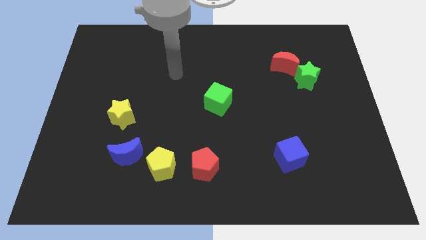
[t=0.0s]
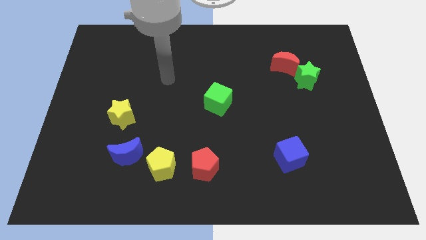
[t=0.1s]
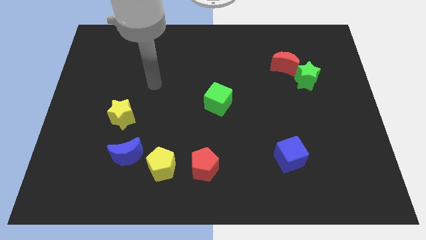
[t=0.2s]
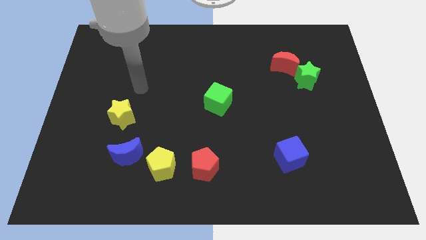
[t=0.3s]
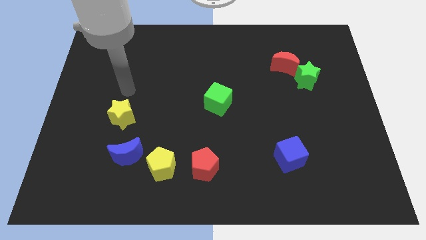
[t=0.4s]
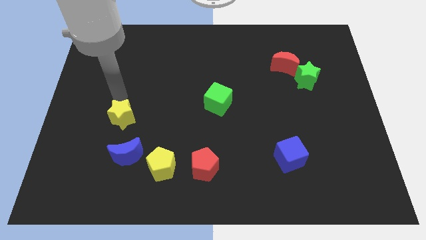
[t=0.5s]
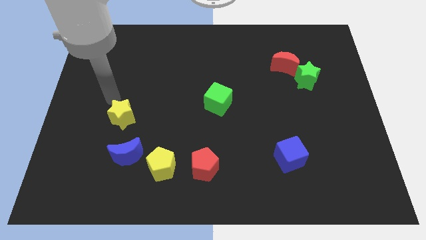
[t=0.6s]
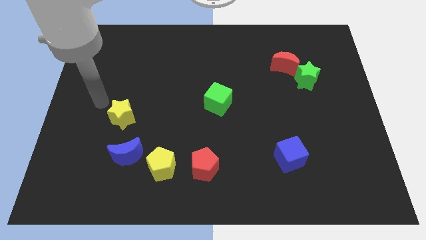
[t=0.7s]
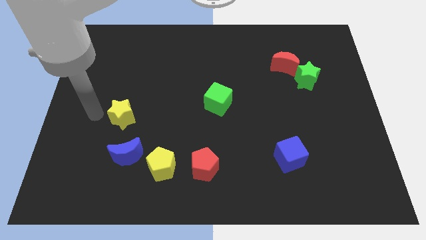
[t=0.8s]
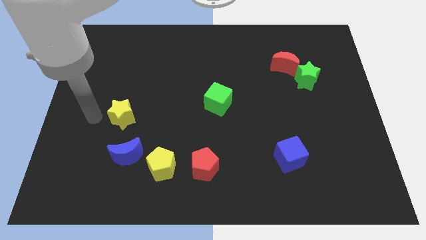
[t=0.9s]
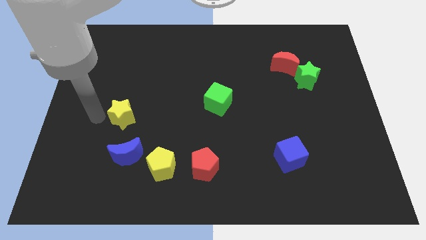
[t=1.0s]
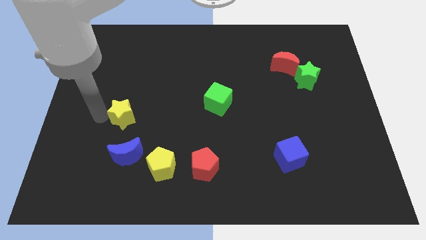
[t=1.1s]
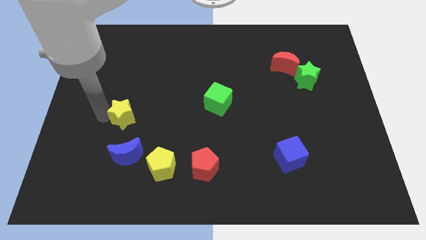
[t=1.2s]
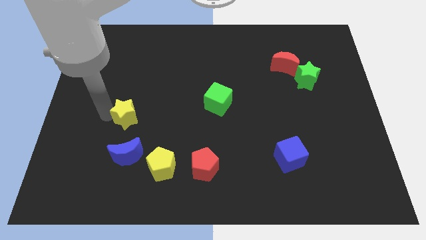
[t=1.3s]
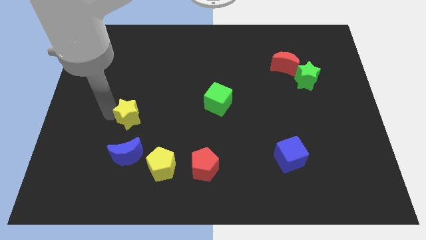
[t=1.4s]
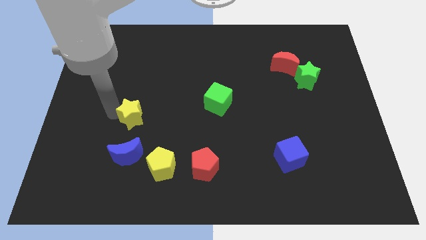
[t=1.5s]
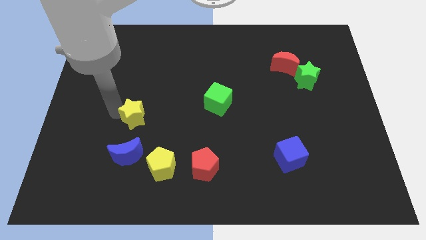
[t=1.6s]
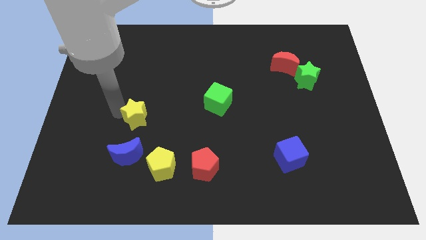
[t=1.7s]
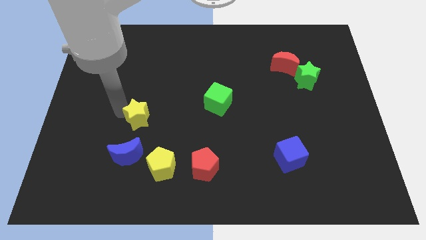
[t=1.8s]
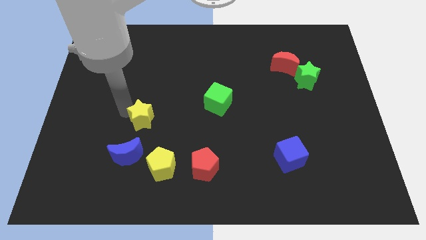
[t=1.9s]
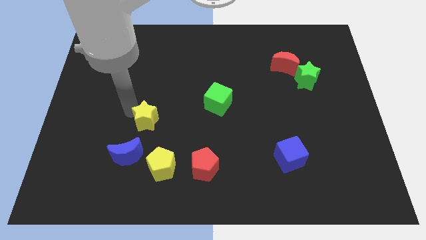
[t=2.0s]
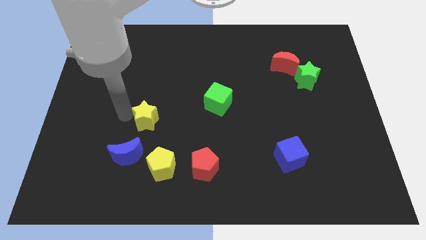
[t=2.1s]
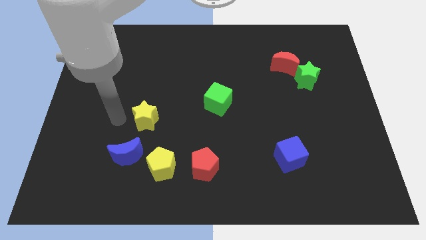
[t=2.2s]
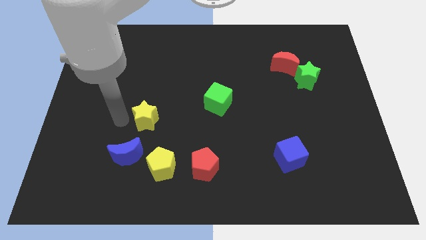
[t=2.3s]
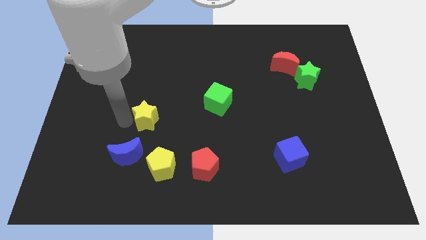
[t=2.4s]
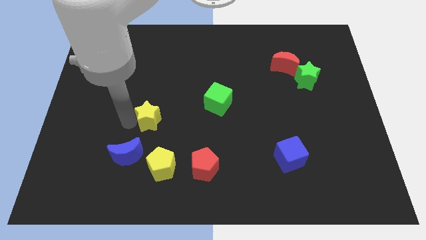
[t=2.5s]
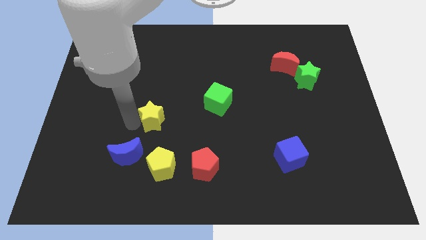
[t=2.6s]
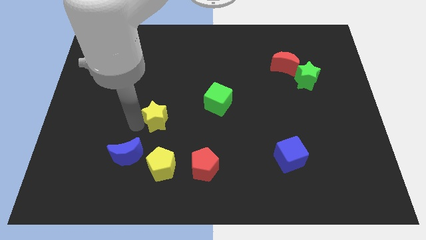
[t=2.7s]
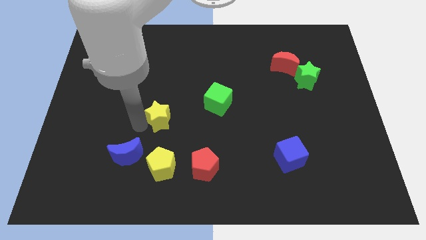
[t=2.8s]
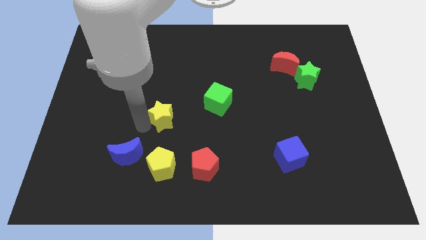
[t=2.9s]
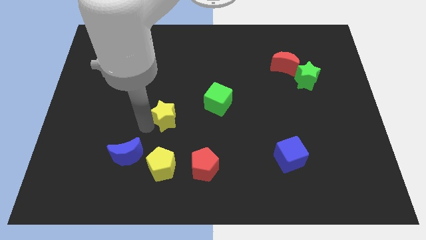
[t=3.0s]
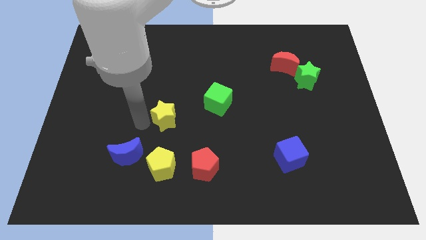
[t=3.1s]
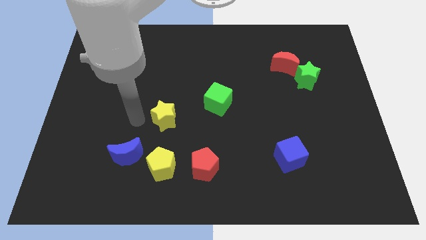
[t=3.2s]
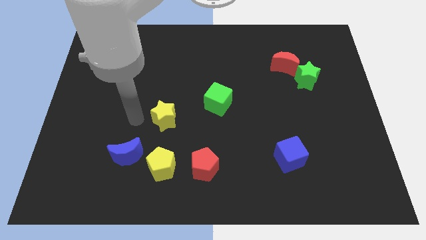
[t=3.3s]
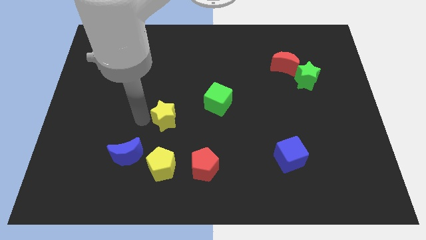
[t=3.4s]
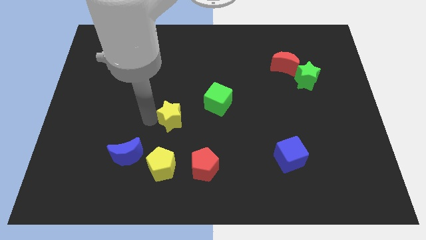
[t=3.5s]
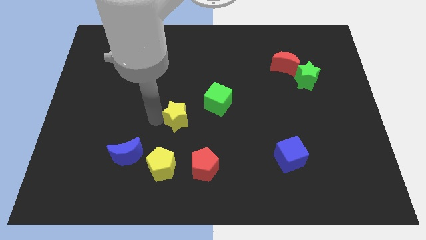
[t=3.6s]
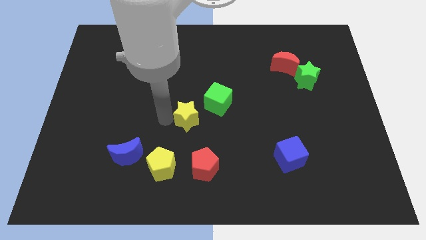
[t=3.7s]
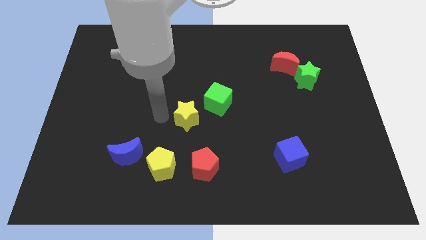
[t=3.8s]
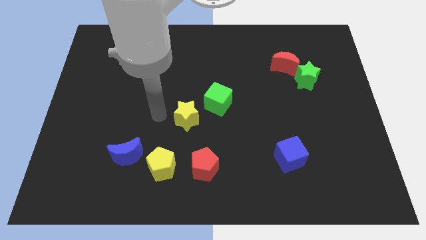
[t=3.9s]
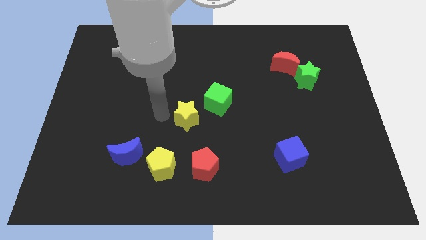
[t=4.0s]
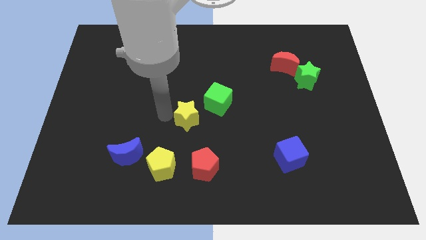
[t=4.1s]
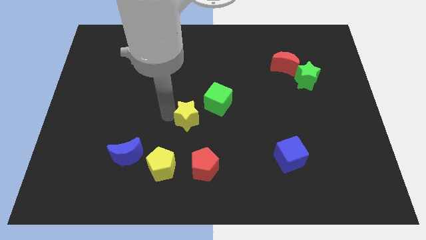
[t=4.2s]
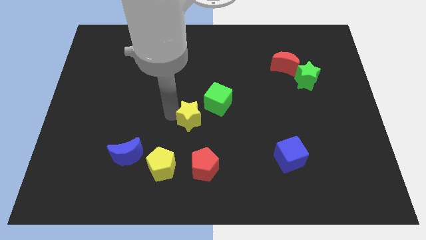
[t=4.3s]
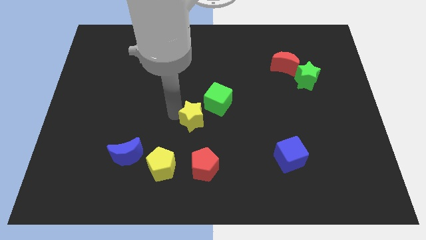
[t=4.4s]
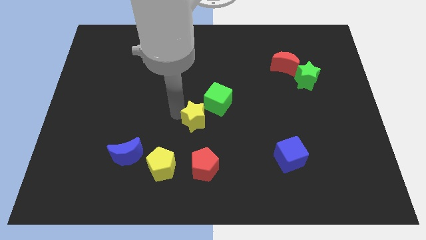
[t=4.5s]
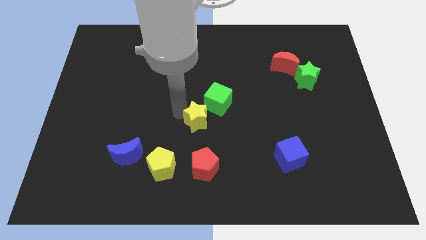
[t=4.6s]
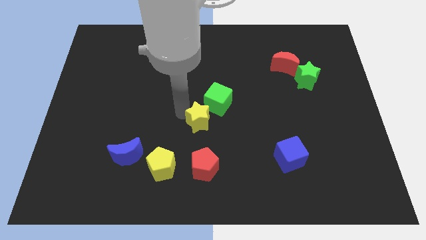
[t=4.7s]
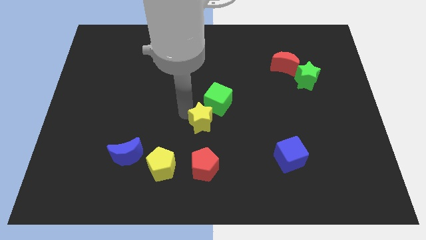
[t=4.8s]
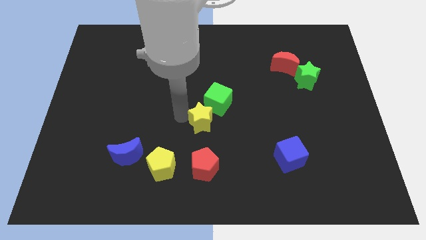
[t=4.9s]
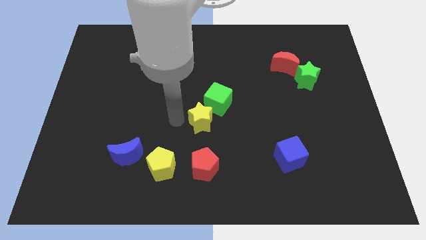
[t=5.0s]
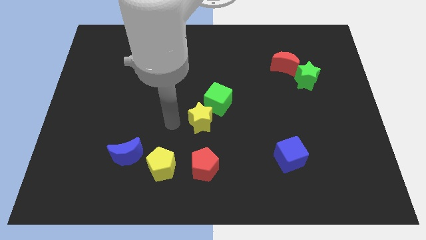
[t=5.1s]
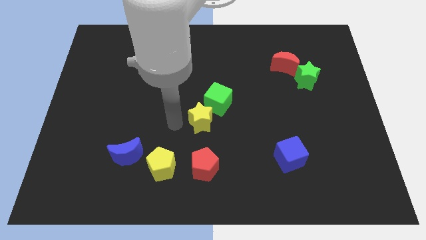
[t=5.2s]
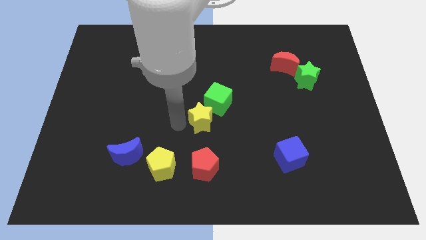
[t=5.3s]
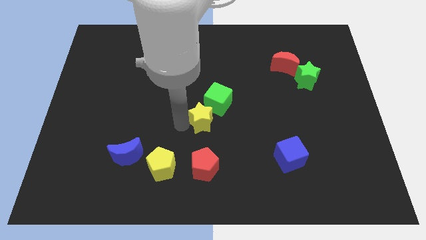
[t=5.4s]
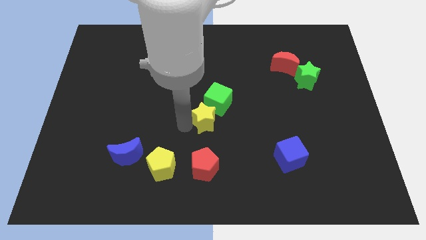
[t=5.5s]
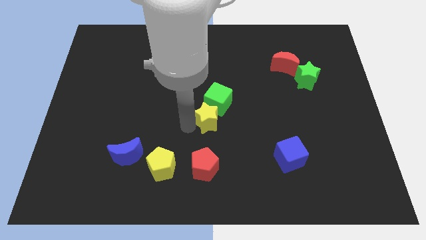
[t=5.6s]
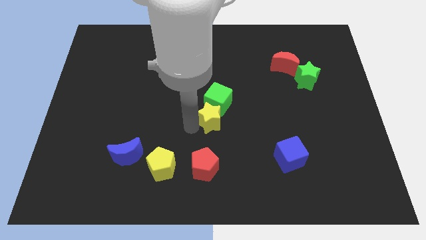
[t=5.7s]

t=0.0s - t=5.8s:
move the yellow star to the right

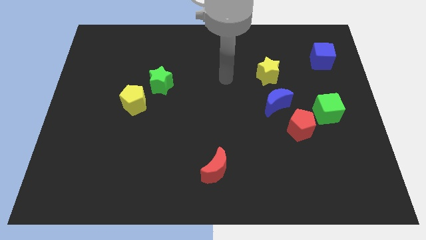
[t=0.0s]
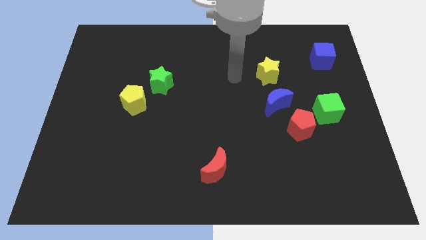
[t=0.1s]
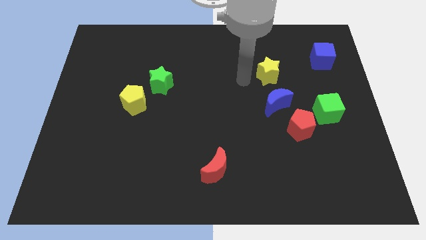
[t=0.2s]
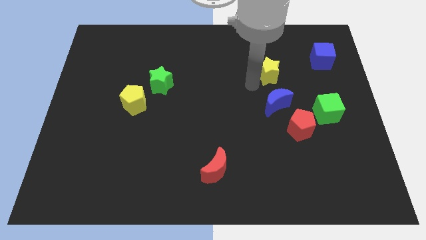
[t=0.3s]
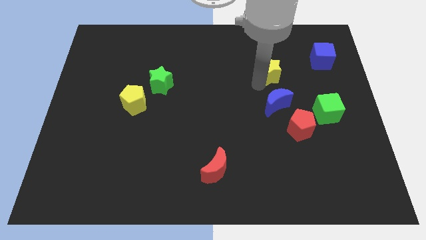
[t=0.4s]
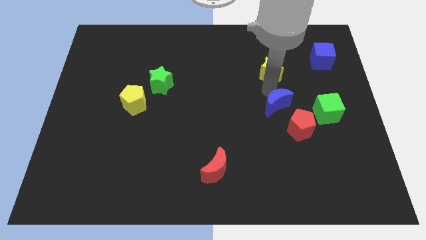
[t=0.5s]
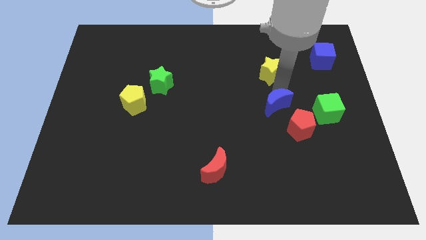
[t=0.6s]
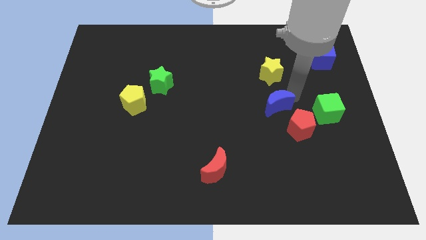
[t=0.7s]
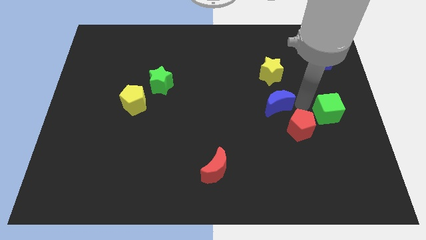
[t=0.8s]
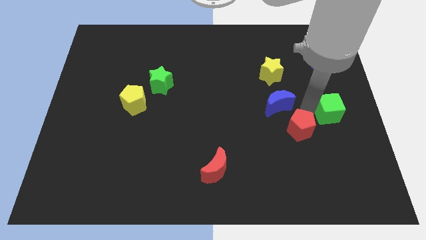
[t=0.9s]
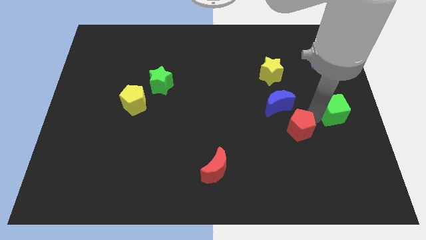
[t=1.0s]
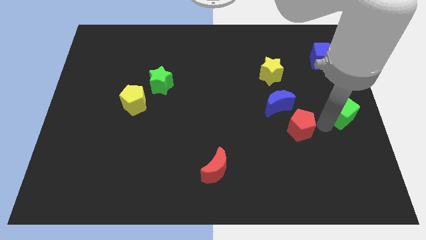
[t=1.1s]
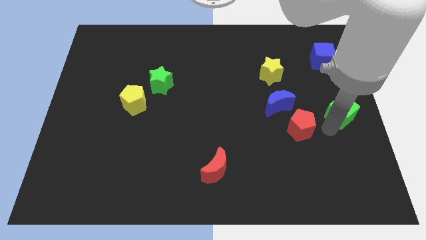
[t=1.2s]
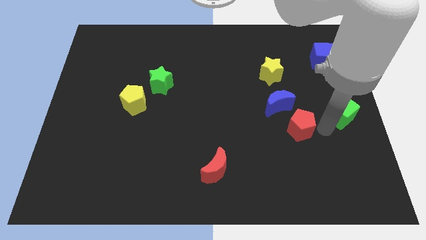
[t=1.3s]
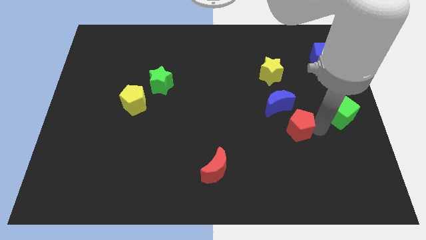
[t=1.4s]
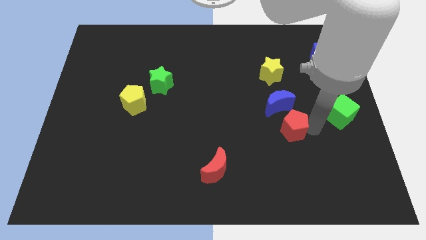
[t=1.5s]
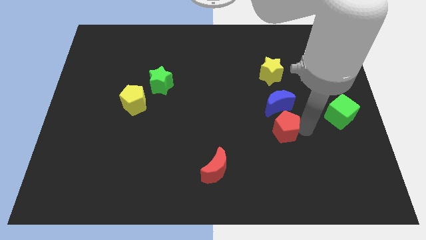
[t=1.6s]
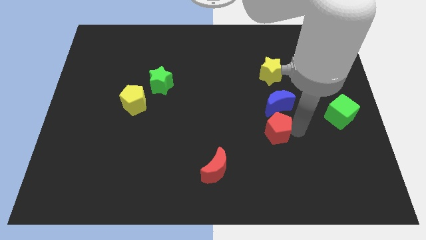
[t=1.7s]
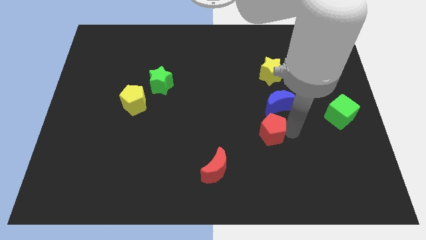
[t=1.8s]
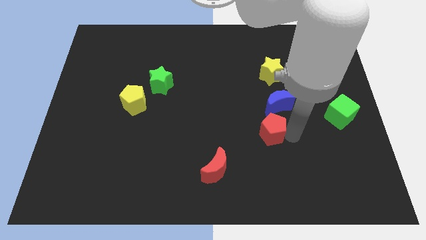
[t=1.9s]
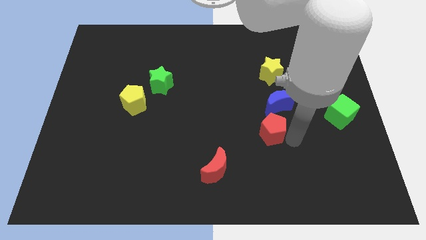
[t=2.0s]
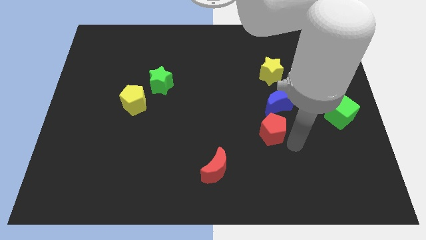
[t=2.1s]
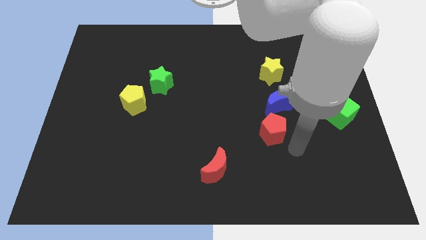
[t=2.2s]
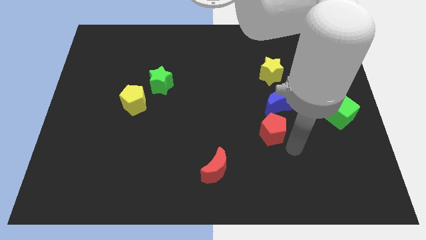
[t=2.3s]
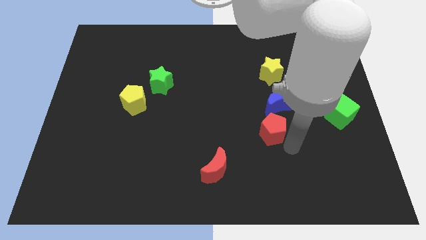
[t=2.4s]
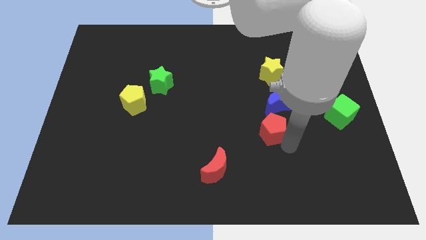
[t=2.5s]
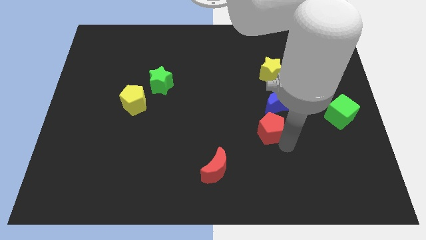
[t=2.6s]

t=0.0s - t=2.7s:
slightly move the red pentagon left
